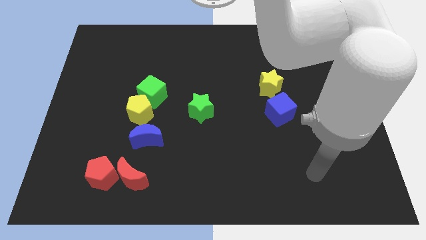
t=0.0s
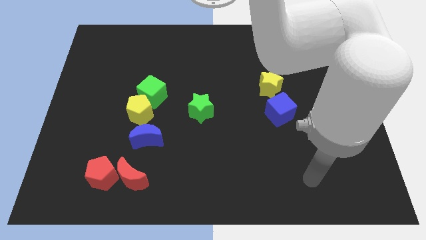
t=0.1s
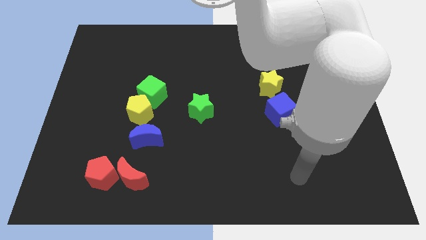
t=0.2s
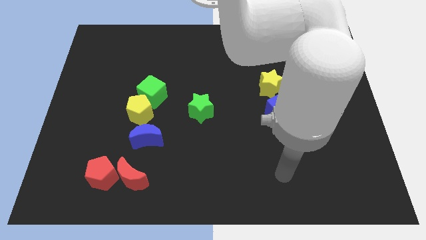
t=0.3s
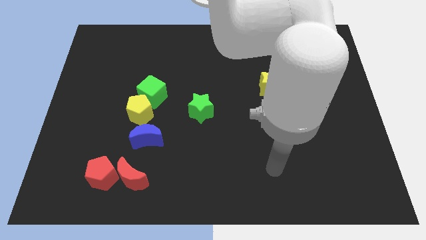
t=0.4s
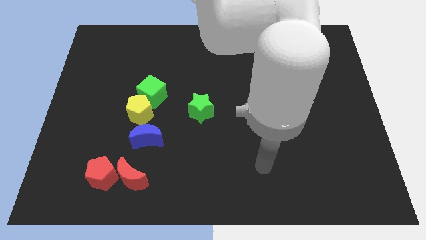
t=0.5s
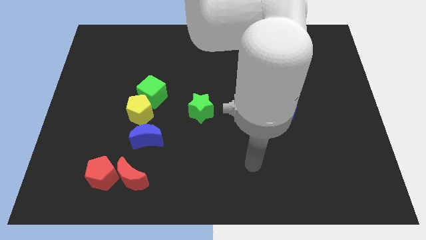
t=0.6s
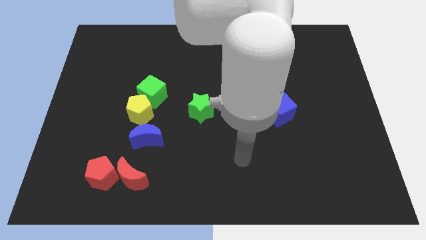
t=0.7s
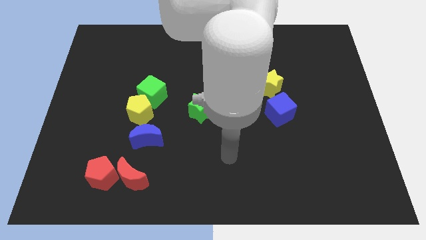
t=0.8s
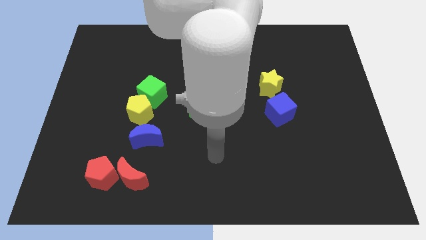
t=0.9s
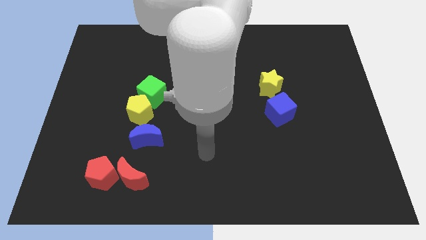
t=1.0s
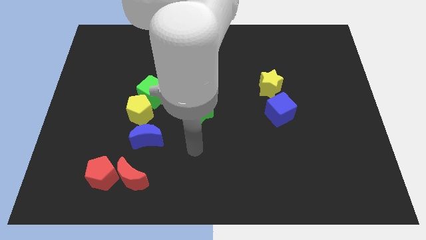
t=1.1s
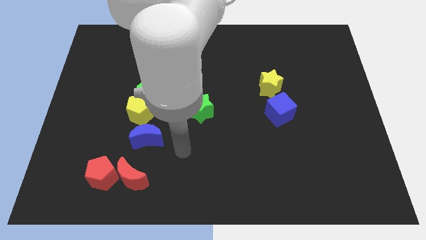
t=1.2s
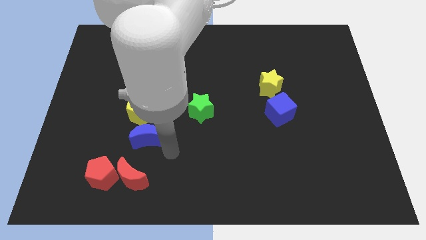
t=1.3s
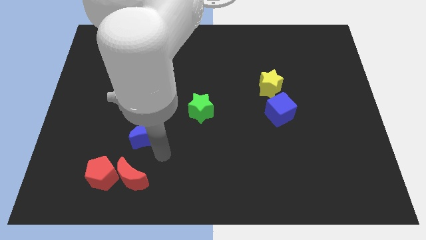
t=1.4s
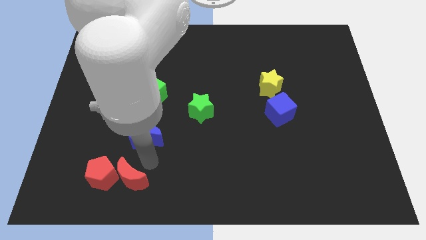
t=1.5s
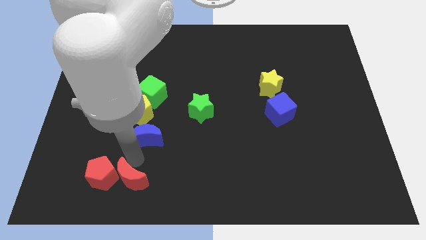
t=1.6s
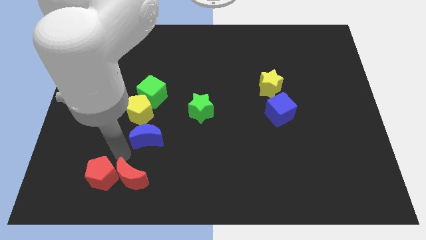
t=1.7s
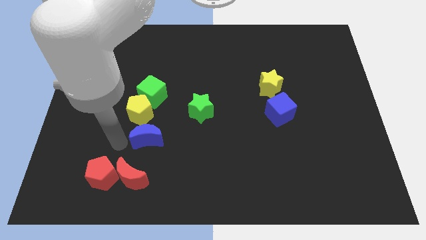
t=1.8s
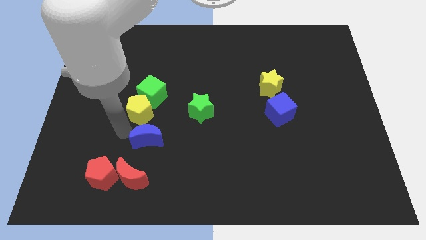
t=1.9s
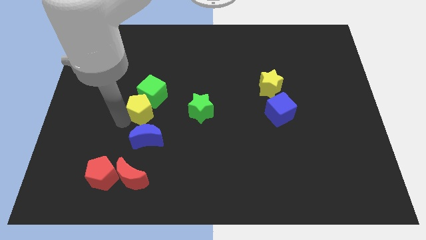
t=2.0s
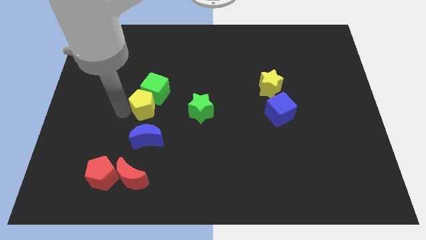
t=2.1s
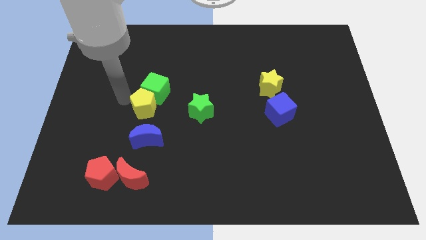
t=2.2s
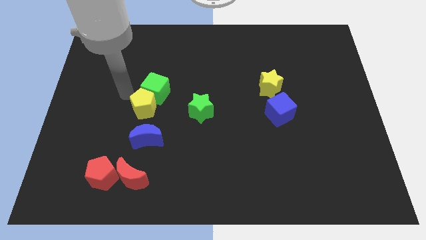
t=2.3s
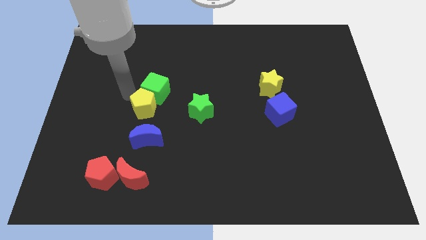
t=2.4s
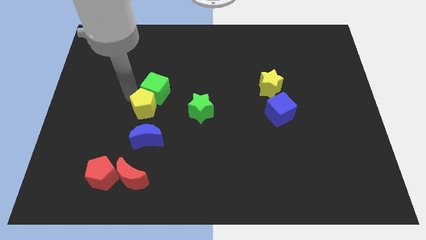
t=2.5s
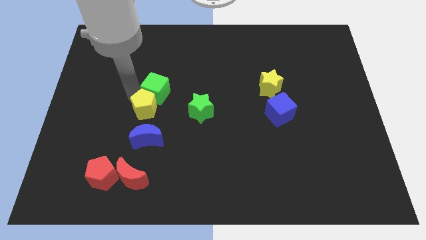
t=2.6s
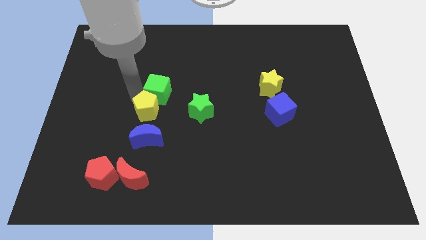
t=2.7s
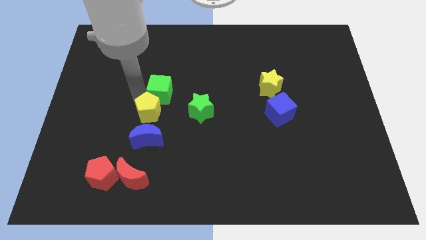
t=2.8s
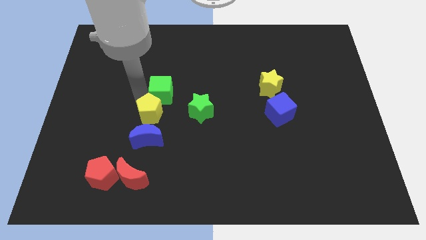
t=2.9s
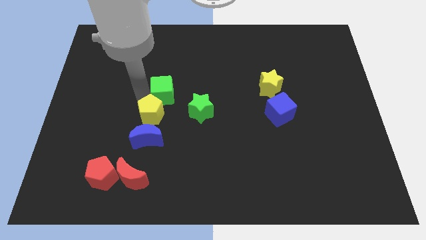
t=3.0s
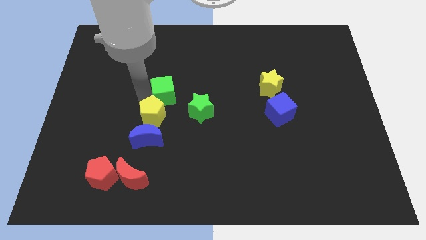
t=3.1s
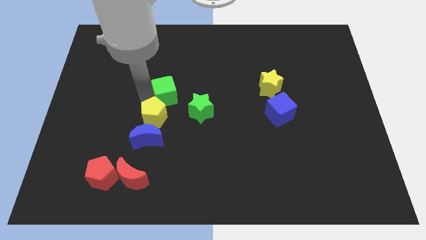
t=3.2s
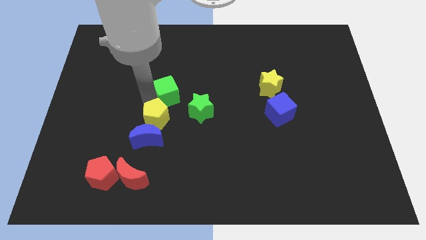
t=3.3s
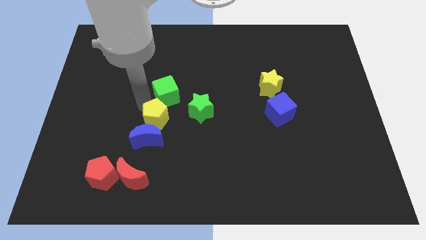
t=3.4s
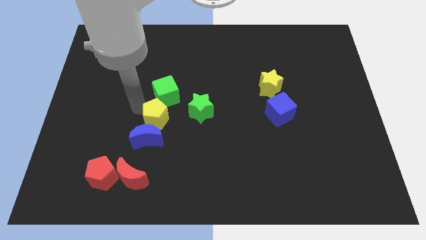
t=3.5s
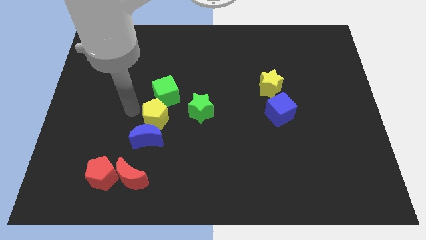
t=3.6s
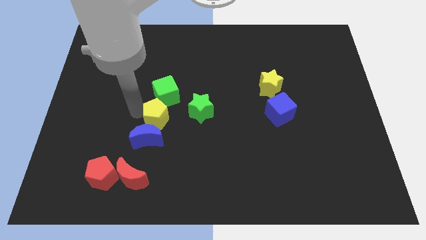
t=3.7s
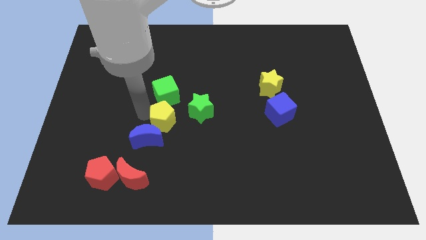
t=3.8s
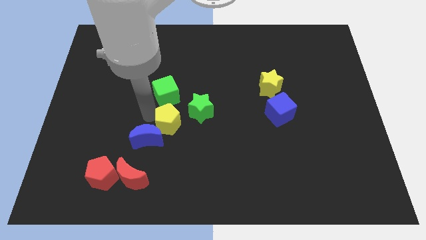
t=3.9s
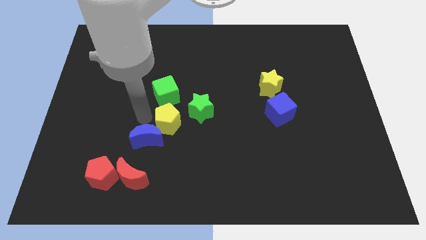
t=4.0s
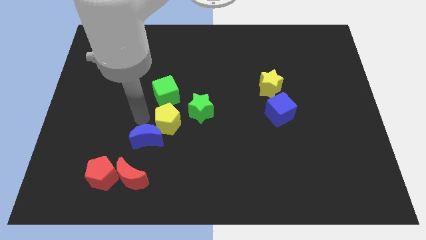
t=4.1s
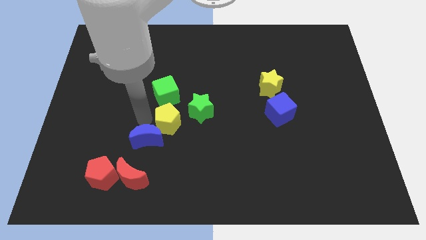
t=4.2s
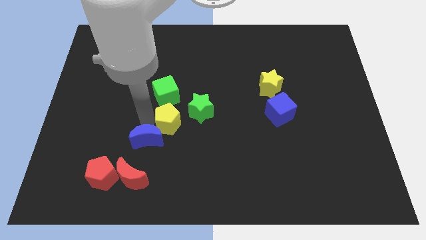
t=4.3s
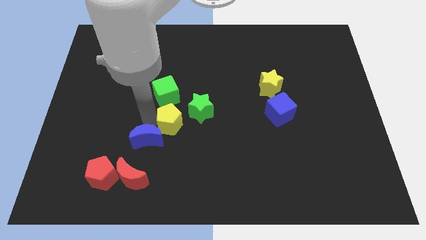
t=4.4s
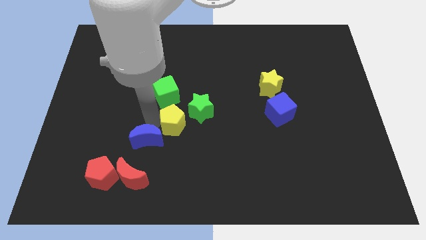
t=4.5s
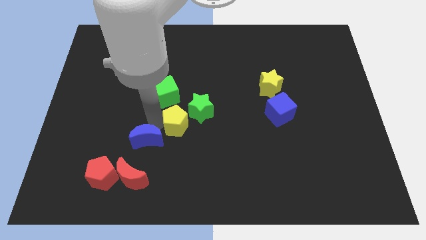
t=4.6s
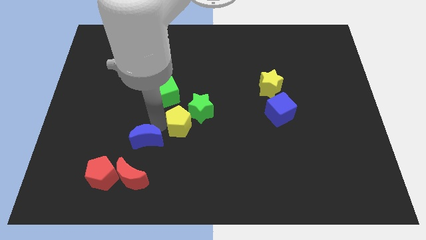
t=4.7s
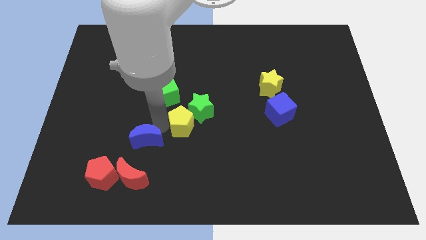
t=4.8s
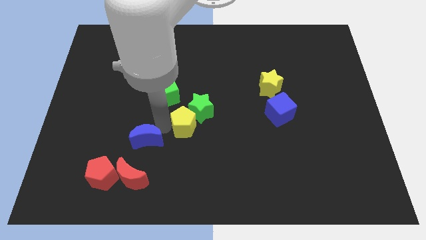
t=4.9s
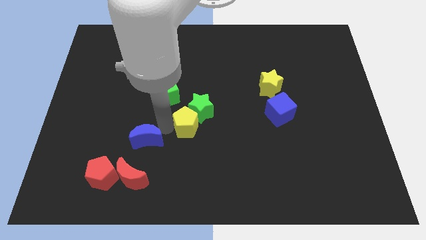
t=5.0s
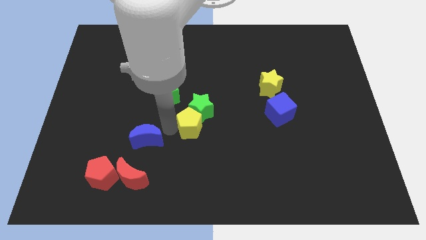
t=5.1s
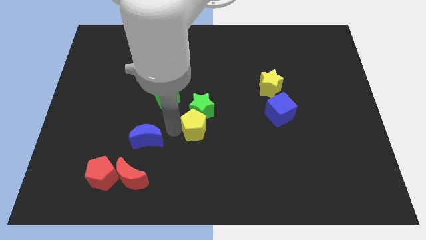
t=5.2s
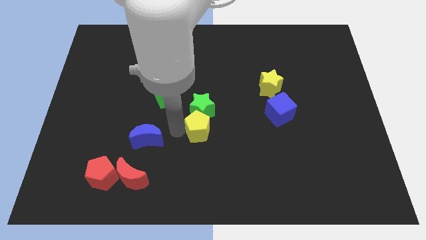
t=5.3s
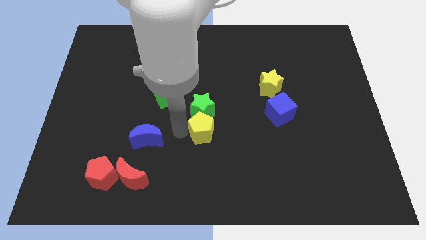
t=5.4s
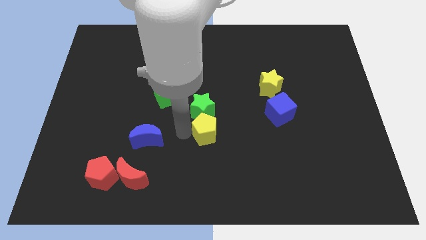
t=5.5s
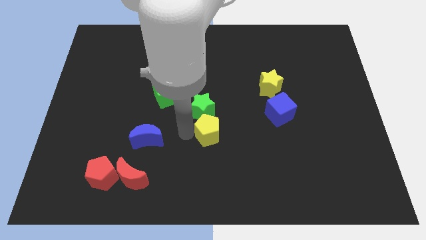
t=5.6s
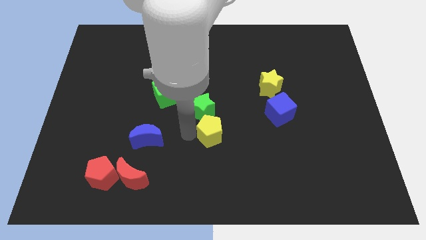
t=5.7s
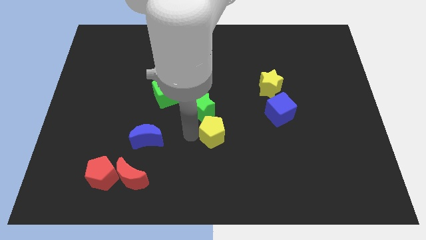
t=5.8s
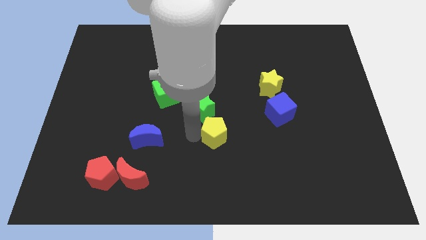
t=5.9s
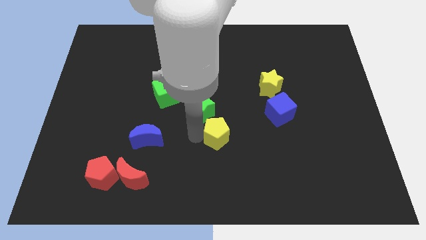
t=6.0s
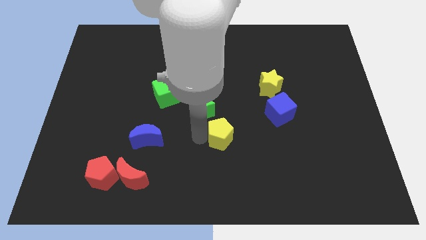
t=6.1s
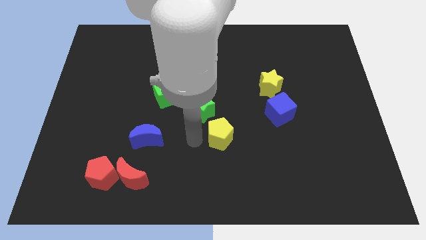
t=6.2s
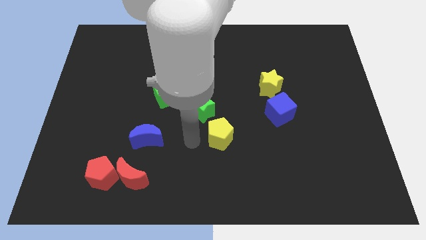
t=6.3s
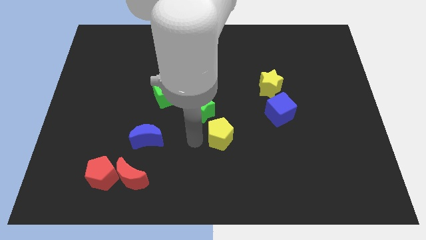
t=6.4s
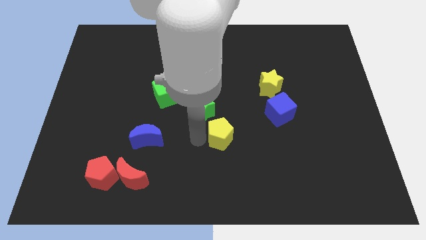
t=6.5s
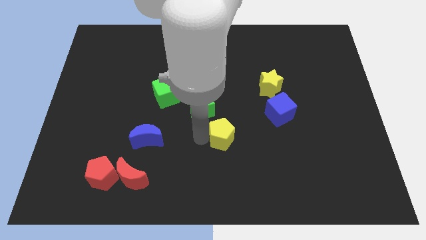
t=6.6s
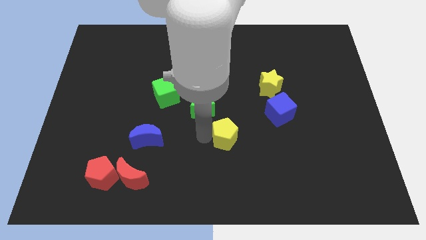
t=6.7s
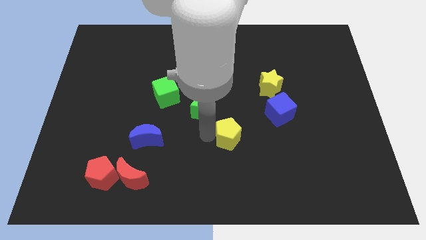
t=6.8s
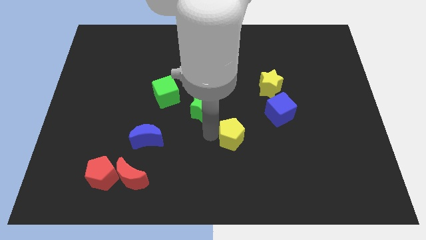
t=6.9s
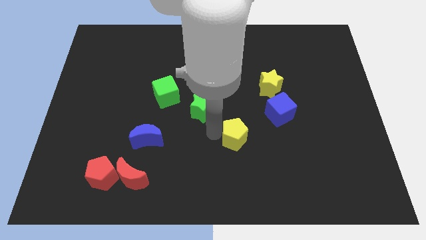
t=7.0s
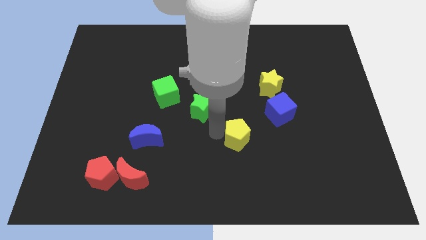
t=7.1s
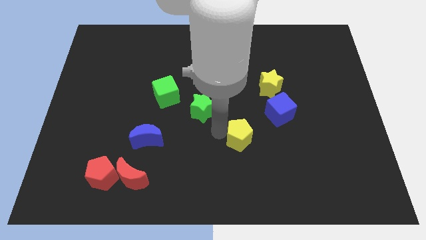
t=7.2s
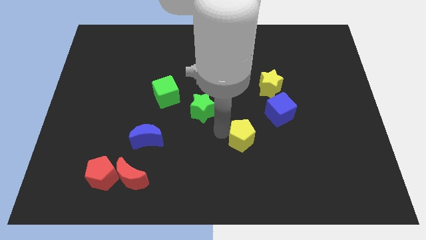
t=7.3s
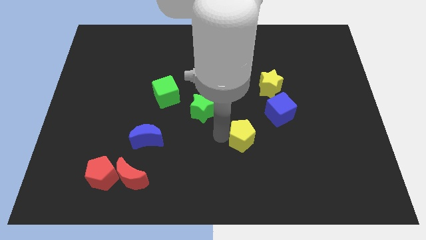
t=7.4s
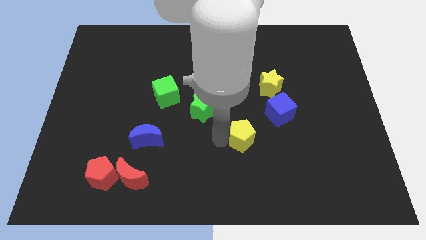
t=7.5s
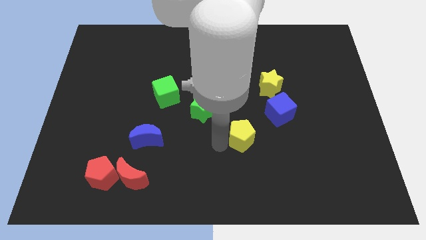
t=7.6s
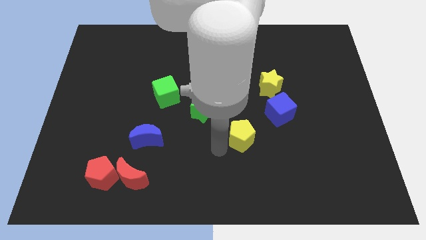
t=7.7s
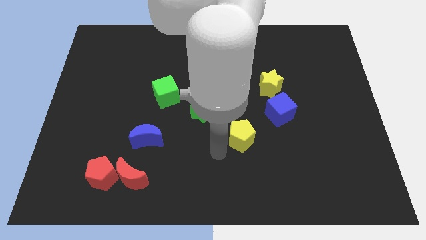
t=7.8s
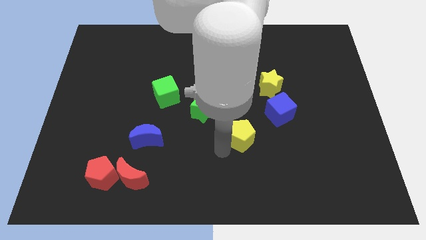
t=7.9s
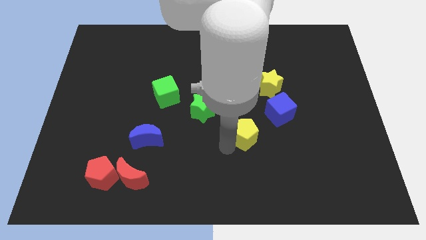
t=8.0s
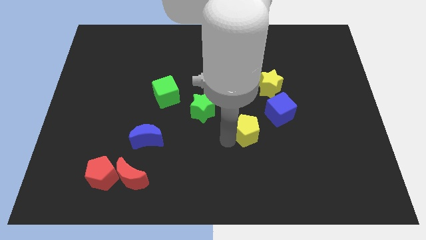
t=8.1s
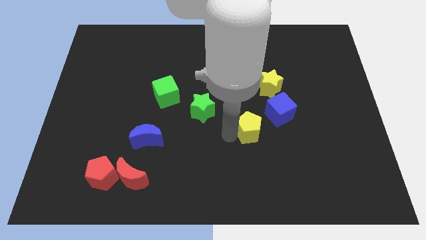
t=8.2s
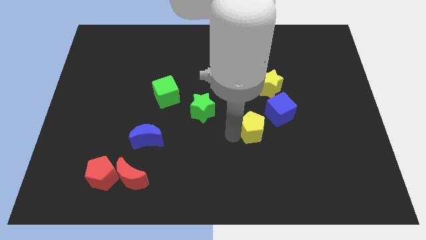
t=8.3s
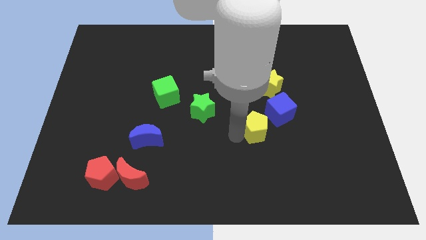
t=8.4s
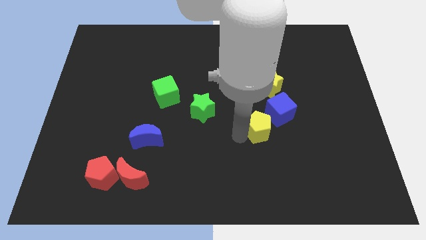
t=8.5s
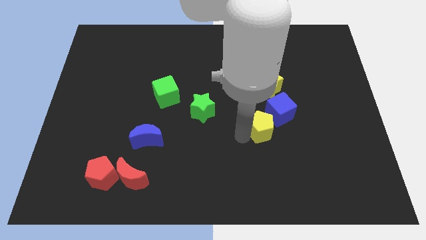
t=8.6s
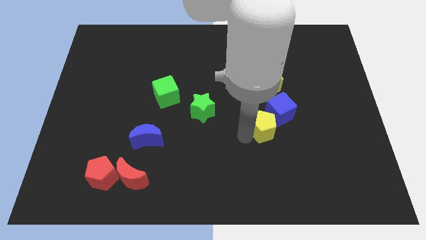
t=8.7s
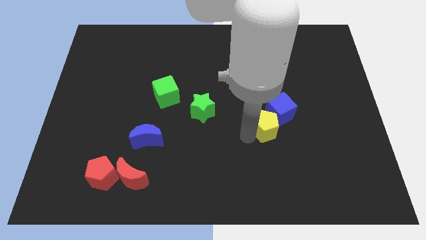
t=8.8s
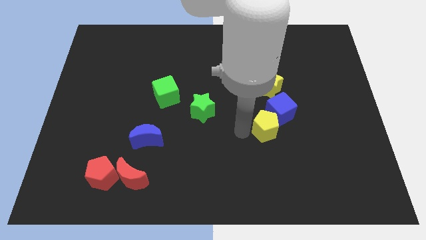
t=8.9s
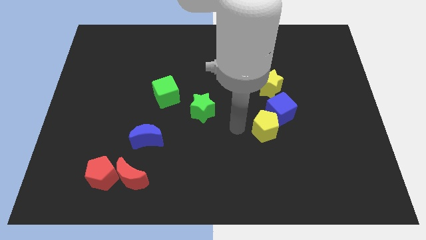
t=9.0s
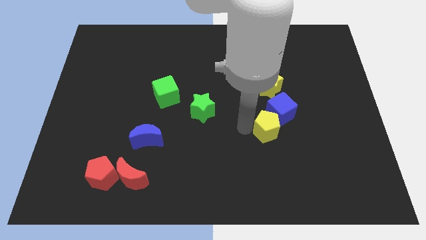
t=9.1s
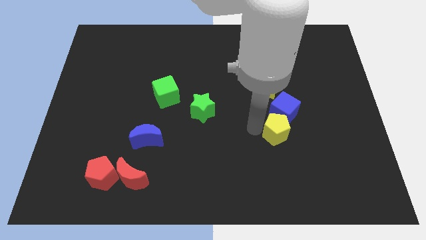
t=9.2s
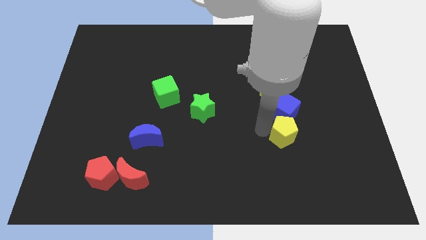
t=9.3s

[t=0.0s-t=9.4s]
put the yellow pentagon to the bottom right side of the blue cube
